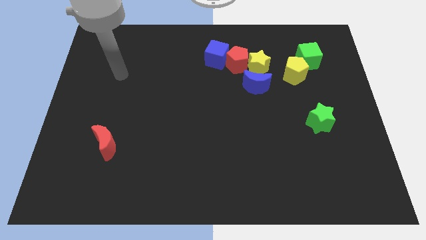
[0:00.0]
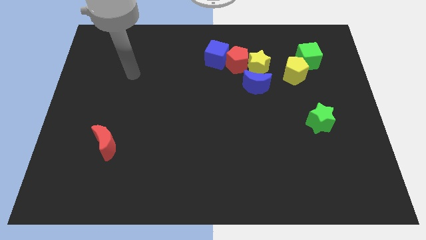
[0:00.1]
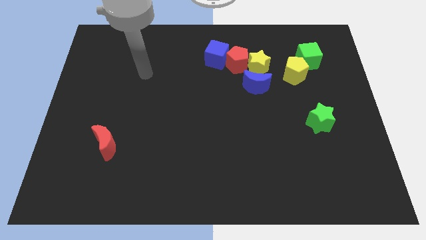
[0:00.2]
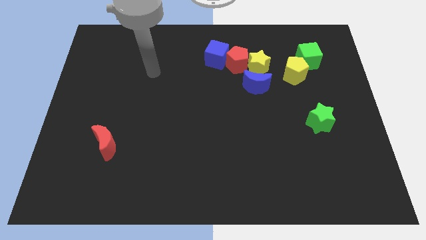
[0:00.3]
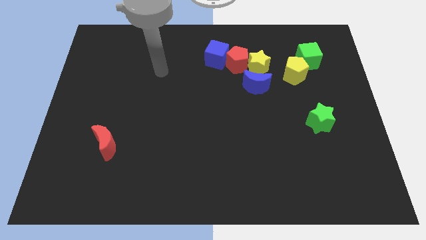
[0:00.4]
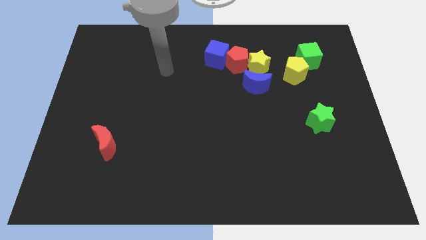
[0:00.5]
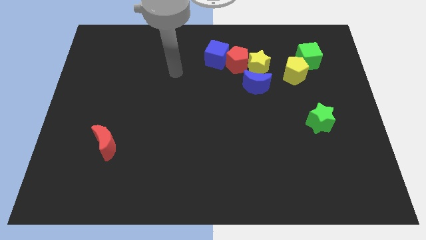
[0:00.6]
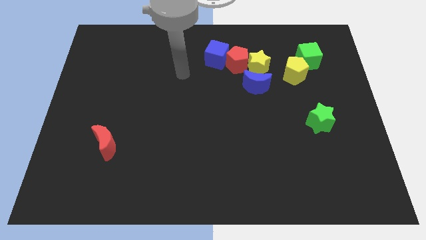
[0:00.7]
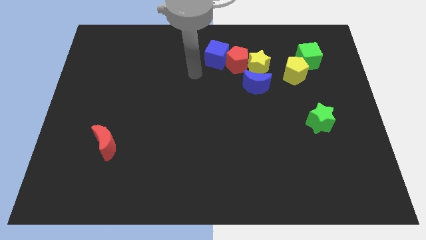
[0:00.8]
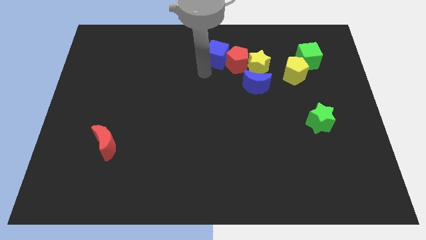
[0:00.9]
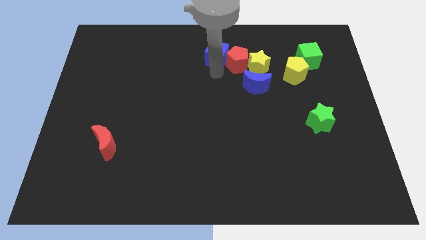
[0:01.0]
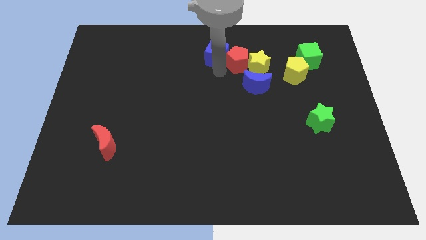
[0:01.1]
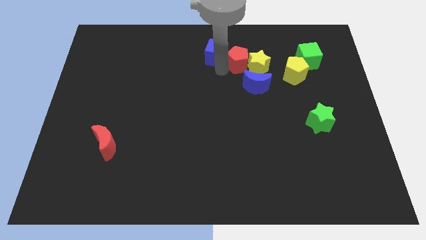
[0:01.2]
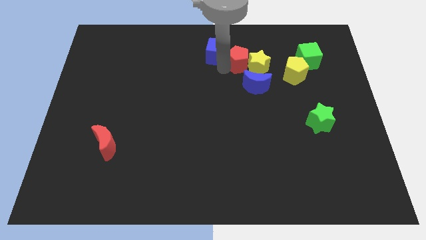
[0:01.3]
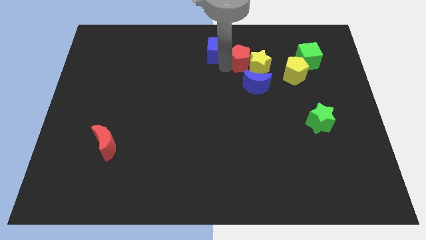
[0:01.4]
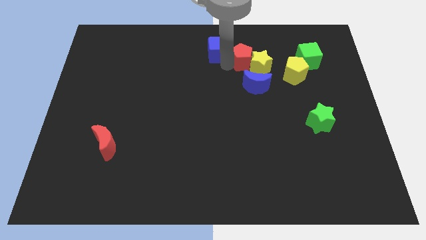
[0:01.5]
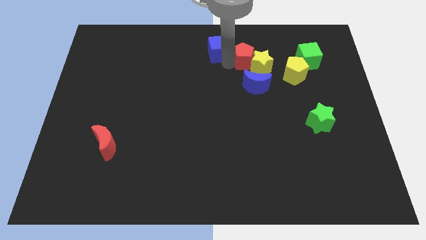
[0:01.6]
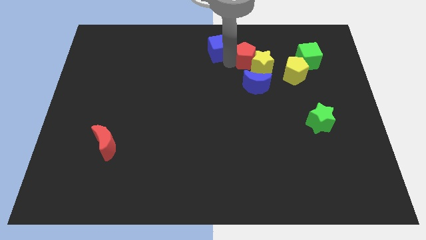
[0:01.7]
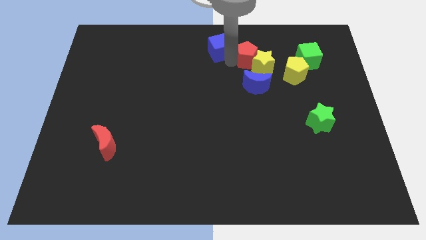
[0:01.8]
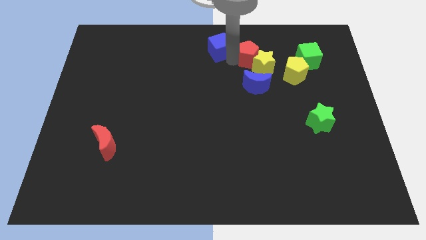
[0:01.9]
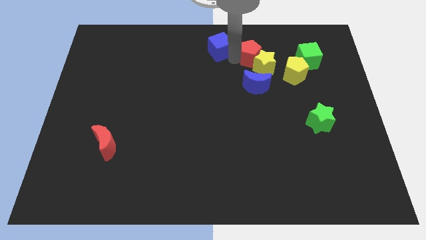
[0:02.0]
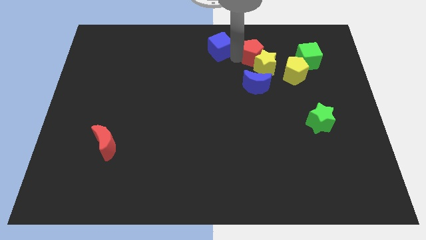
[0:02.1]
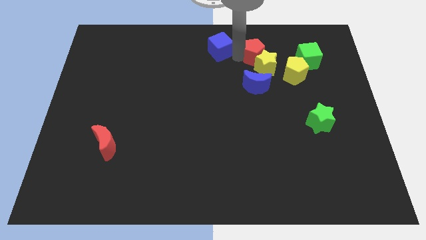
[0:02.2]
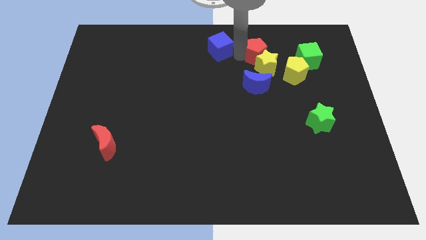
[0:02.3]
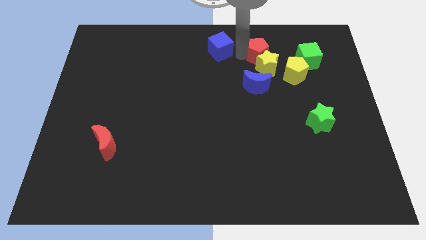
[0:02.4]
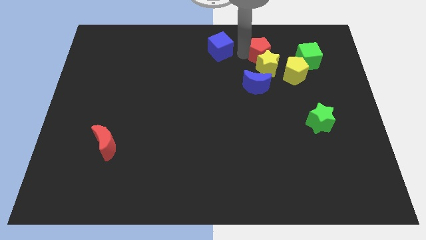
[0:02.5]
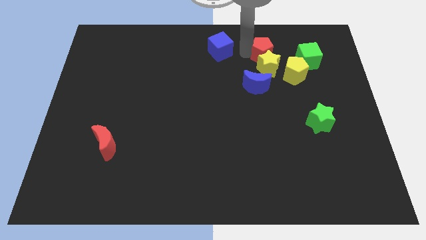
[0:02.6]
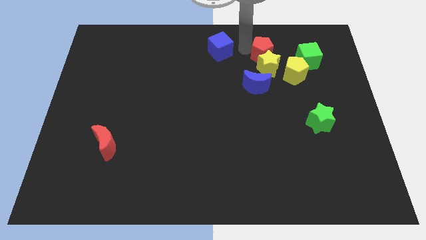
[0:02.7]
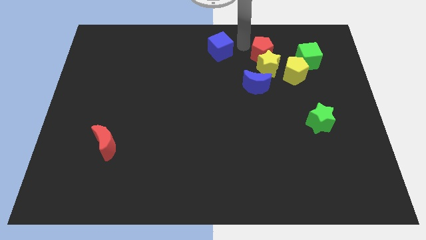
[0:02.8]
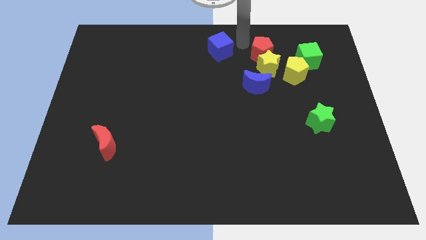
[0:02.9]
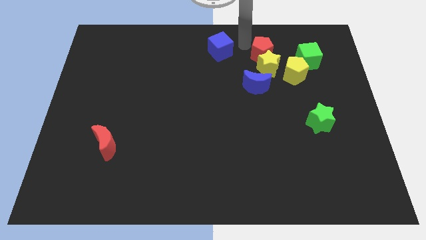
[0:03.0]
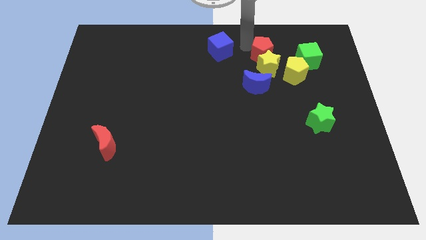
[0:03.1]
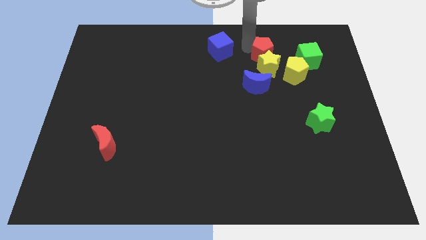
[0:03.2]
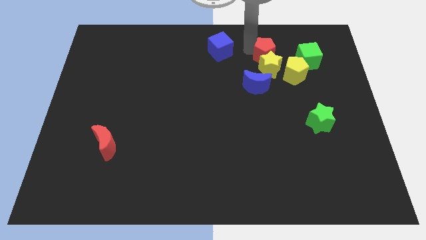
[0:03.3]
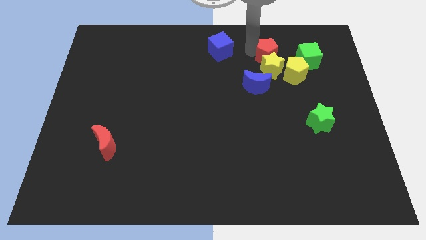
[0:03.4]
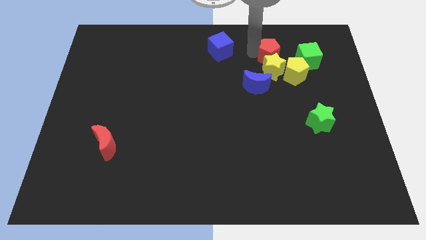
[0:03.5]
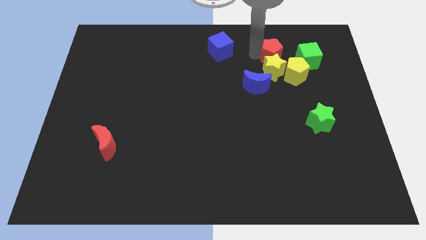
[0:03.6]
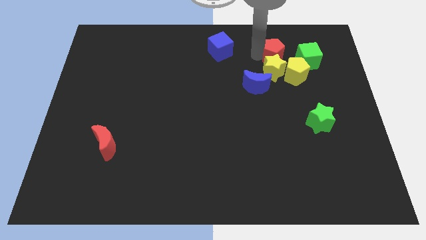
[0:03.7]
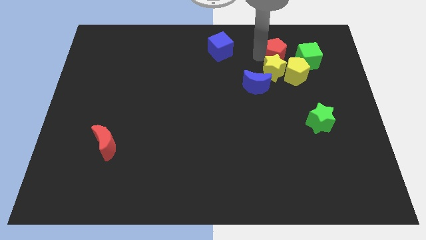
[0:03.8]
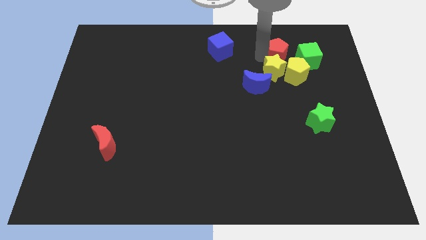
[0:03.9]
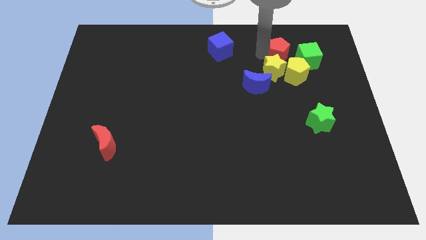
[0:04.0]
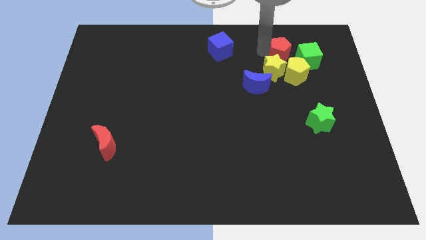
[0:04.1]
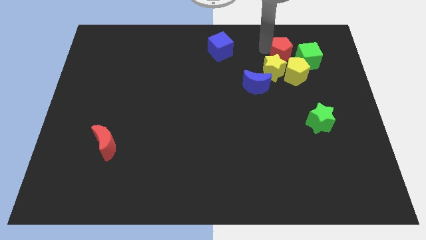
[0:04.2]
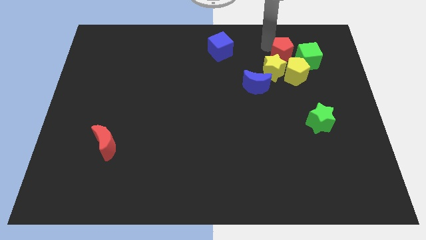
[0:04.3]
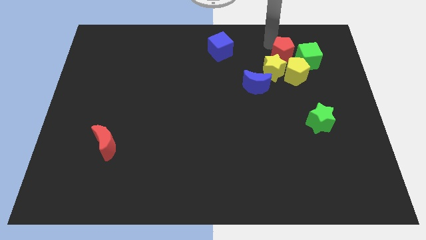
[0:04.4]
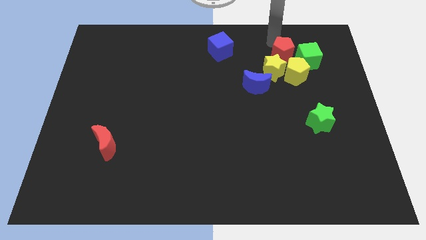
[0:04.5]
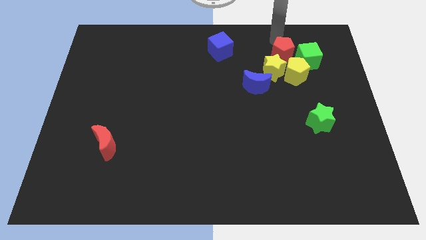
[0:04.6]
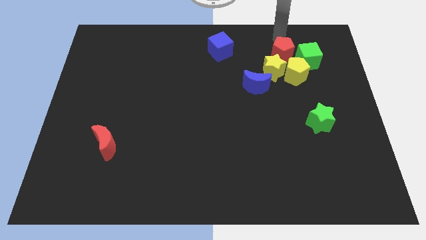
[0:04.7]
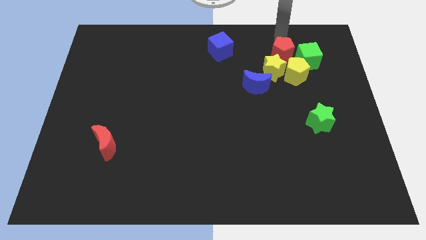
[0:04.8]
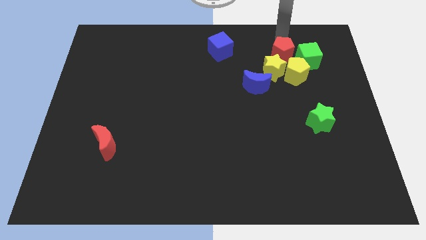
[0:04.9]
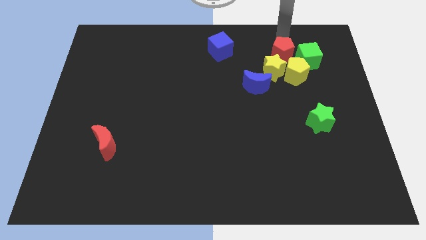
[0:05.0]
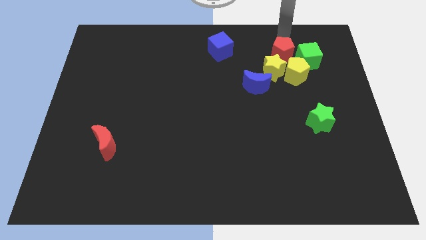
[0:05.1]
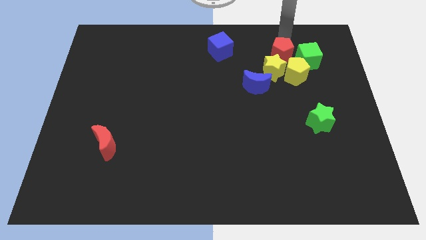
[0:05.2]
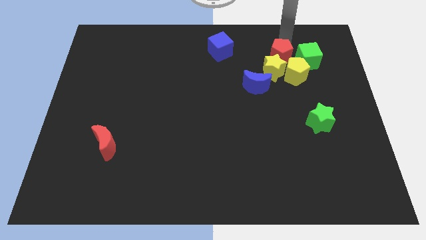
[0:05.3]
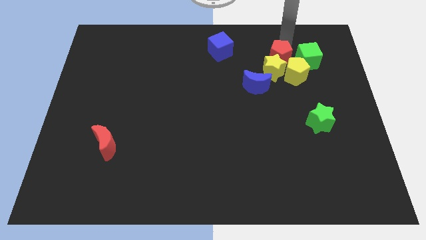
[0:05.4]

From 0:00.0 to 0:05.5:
put the red pentagon diagonally up and to the right of the blue moon

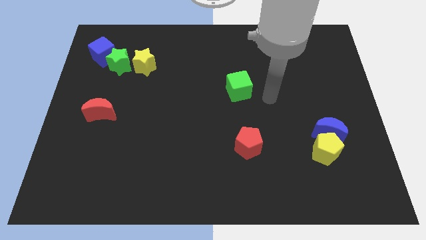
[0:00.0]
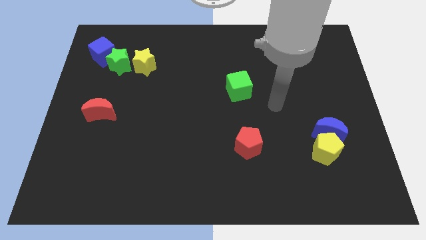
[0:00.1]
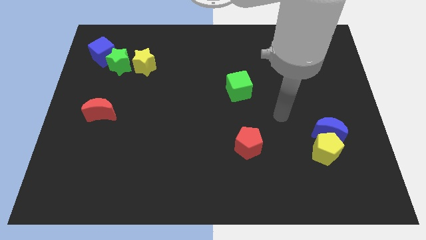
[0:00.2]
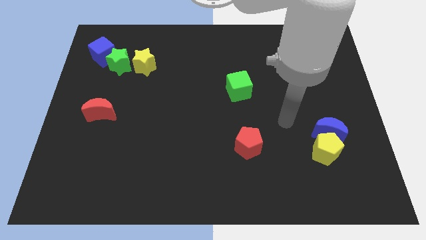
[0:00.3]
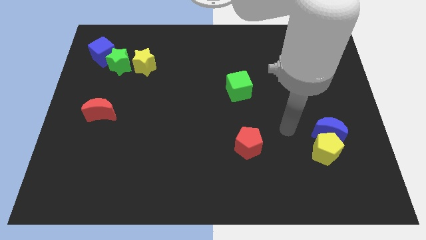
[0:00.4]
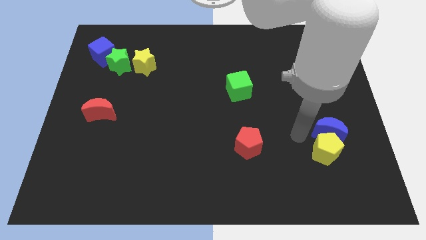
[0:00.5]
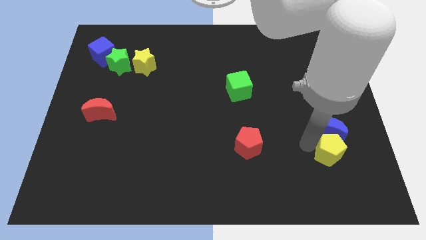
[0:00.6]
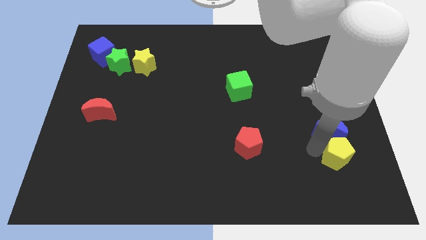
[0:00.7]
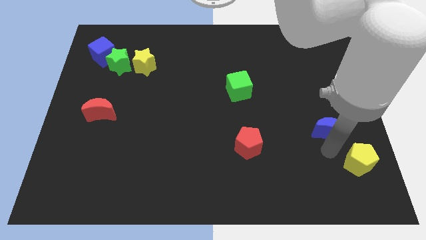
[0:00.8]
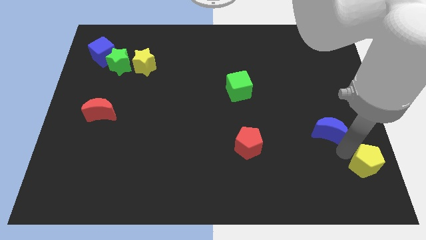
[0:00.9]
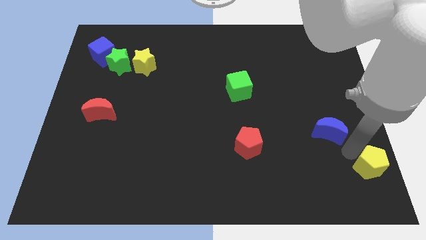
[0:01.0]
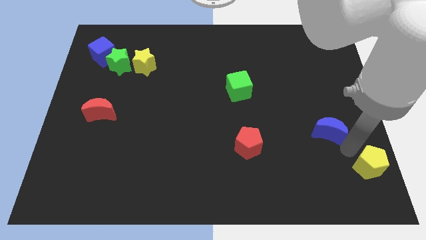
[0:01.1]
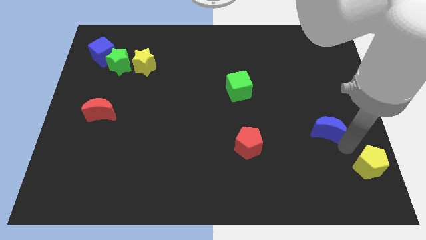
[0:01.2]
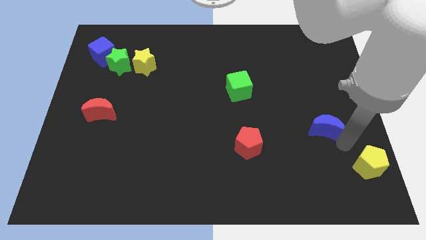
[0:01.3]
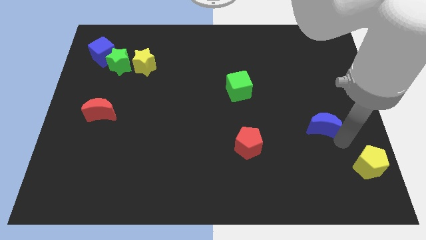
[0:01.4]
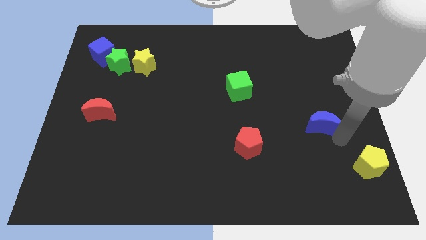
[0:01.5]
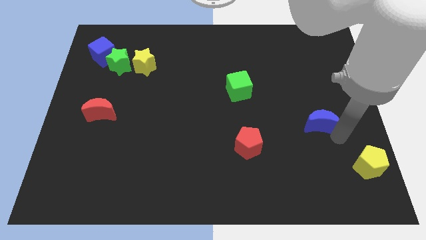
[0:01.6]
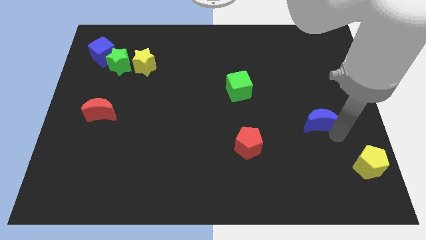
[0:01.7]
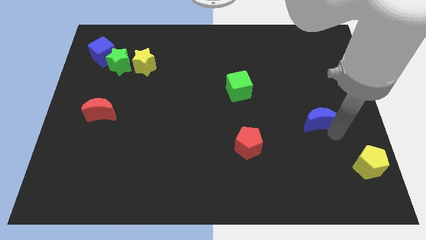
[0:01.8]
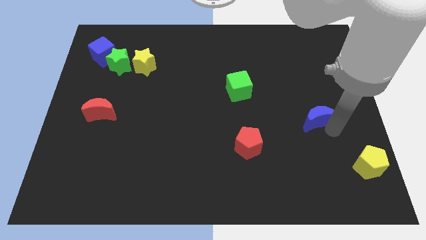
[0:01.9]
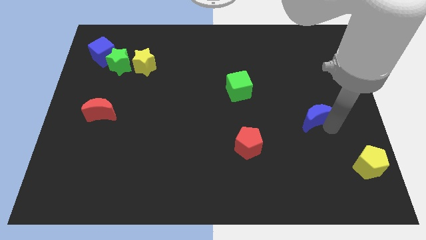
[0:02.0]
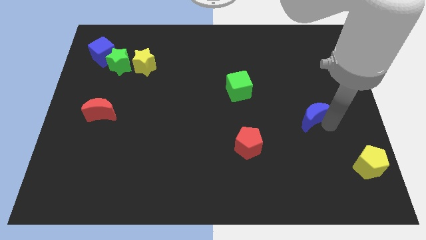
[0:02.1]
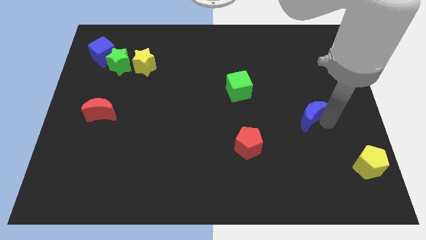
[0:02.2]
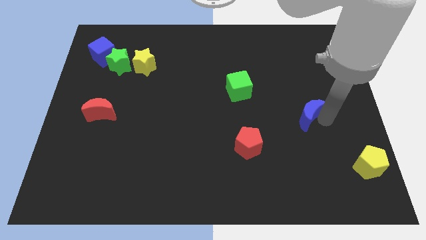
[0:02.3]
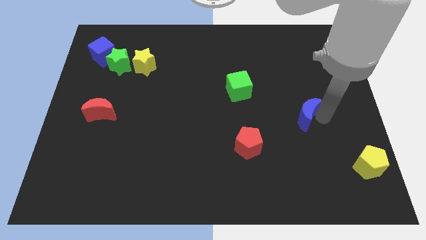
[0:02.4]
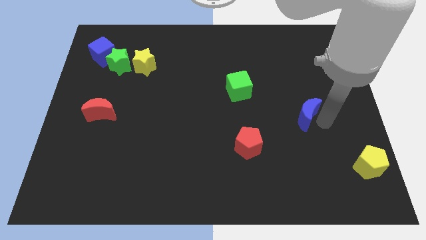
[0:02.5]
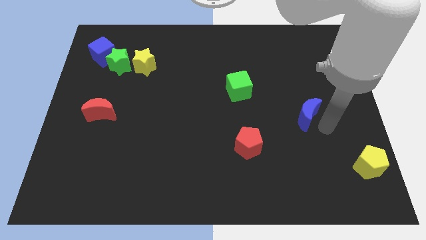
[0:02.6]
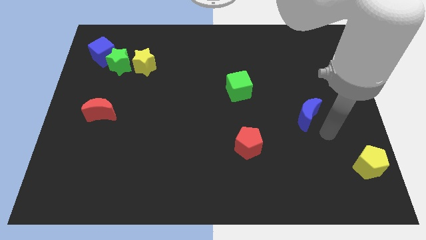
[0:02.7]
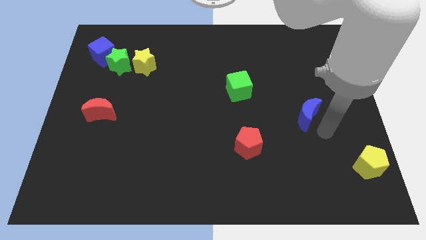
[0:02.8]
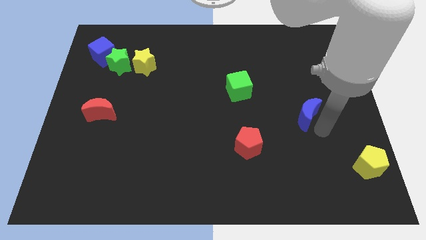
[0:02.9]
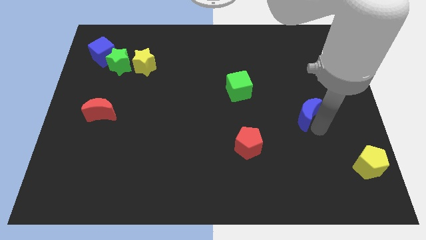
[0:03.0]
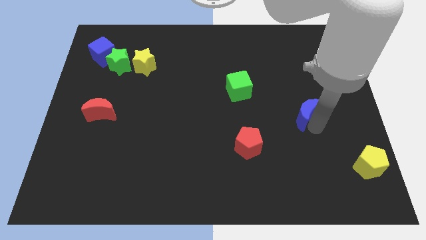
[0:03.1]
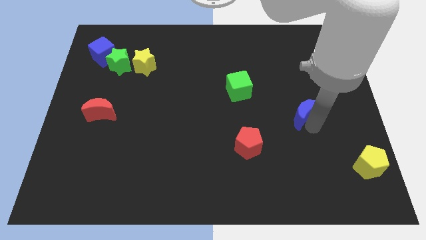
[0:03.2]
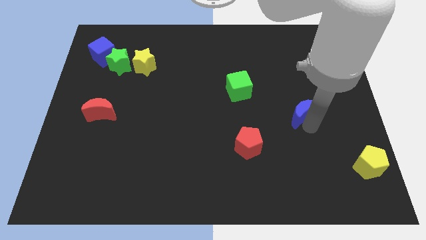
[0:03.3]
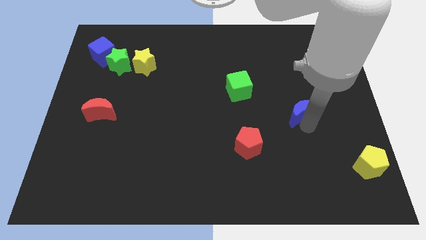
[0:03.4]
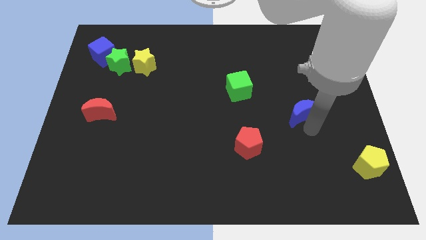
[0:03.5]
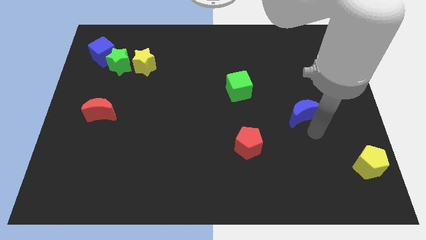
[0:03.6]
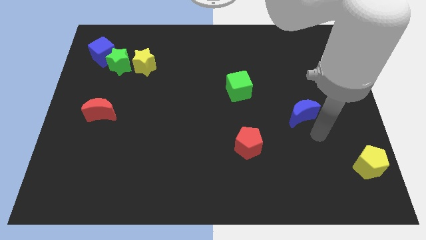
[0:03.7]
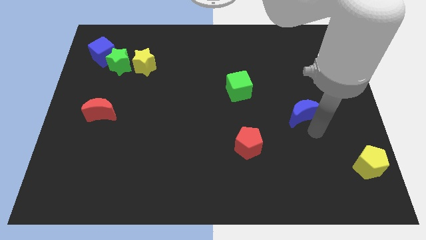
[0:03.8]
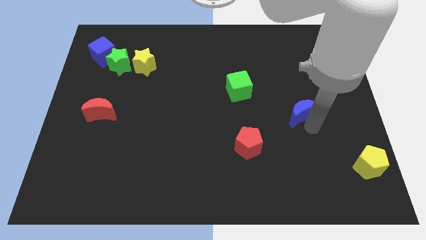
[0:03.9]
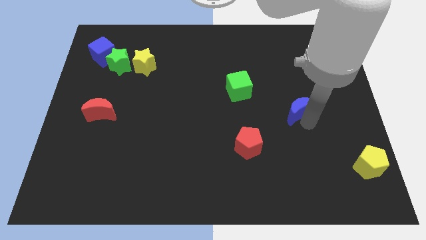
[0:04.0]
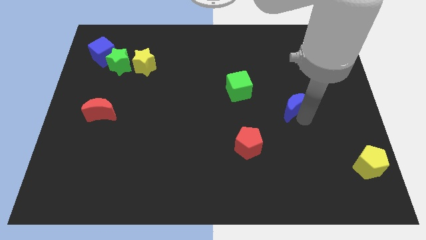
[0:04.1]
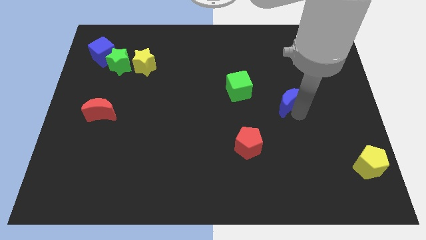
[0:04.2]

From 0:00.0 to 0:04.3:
slide the blue moon to the right side of the green cube
